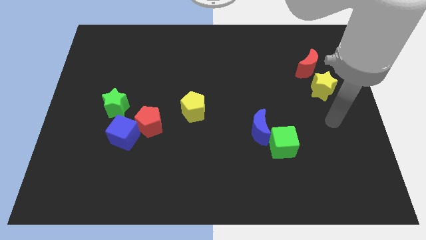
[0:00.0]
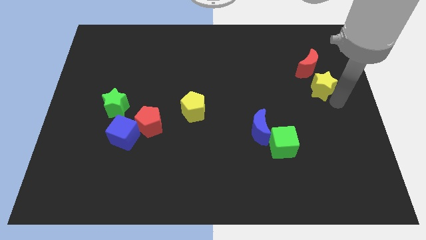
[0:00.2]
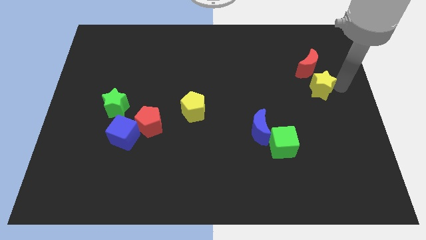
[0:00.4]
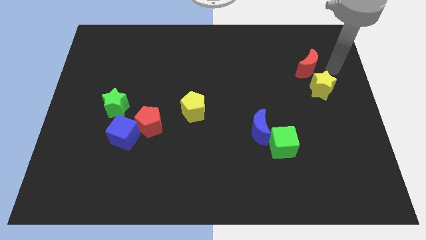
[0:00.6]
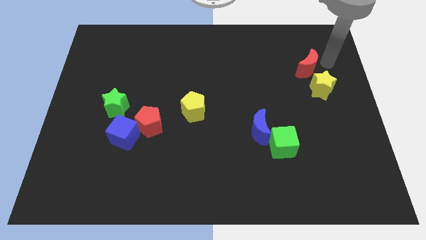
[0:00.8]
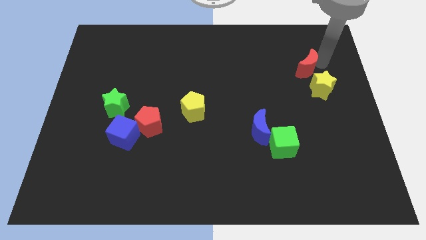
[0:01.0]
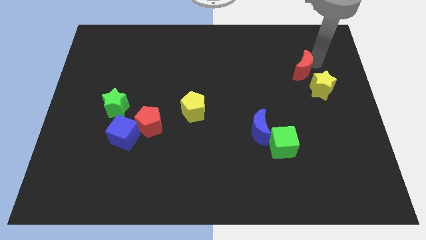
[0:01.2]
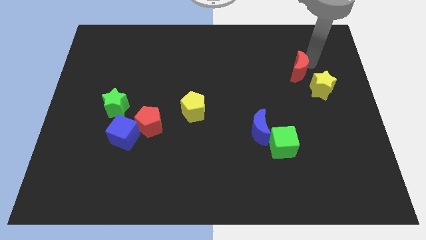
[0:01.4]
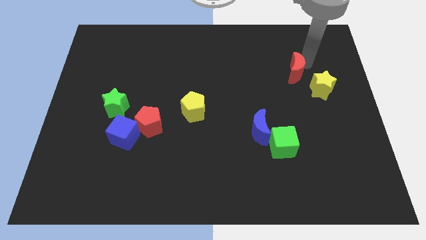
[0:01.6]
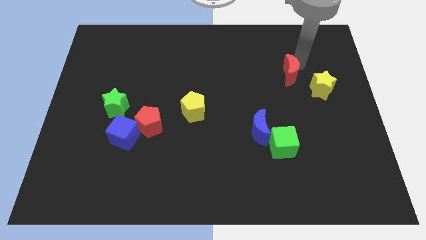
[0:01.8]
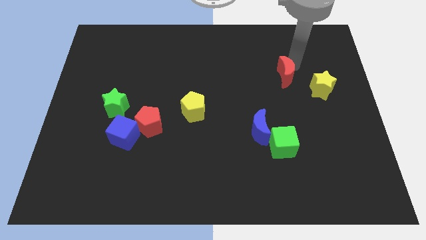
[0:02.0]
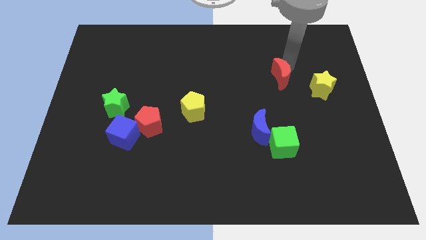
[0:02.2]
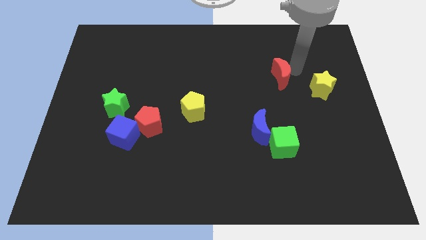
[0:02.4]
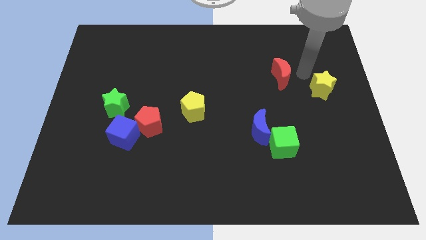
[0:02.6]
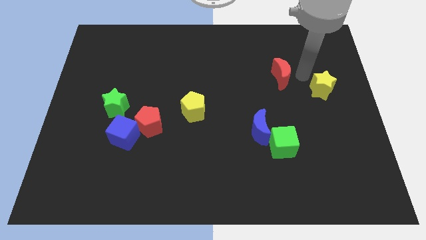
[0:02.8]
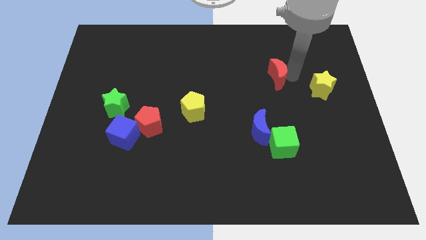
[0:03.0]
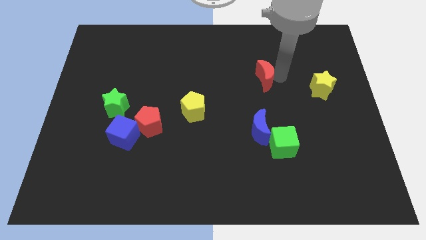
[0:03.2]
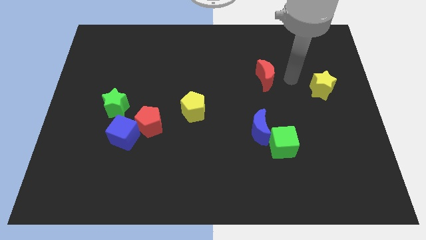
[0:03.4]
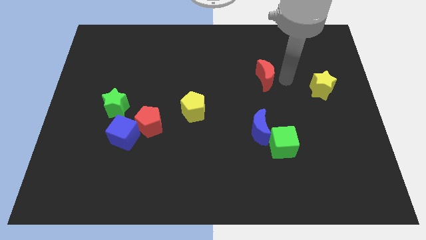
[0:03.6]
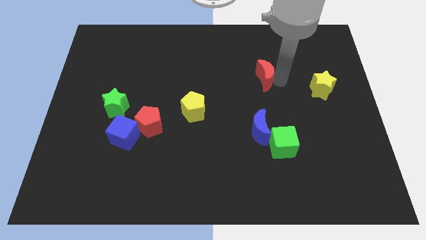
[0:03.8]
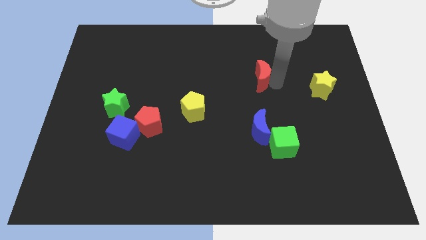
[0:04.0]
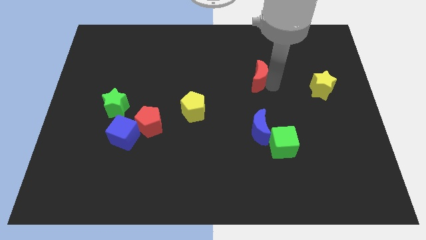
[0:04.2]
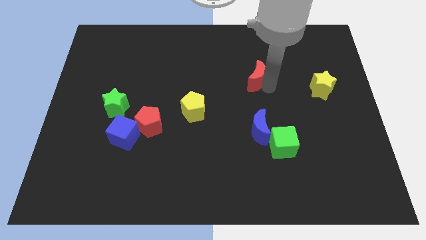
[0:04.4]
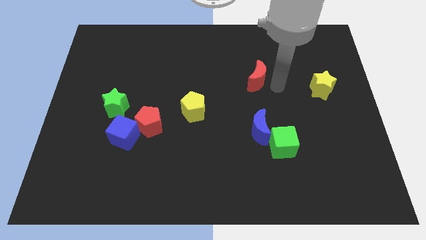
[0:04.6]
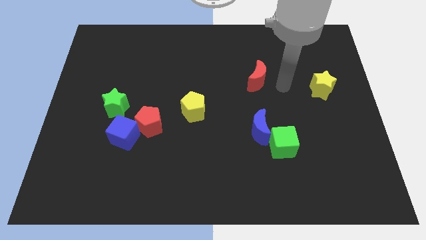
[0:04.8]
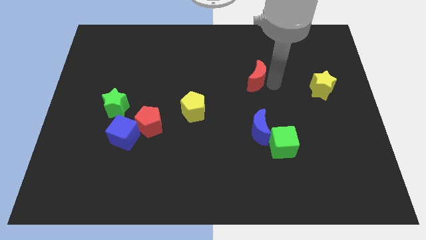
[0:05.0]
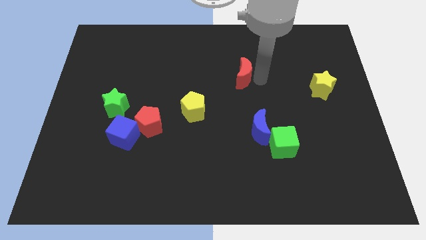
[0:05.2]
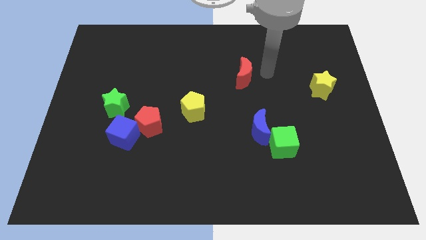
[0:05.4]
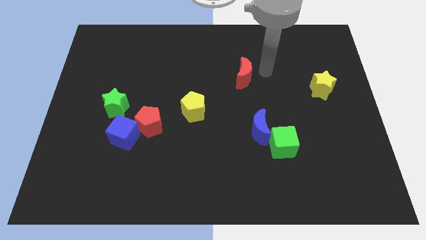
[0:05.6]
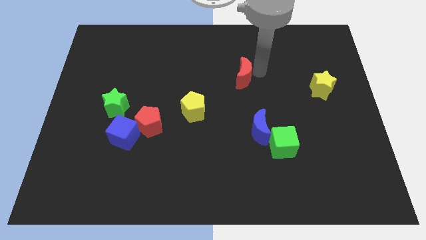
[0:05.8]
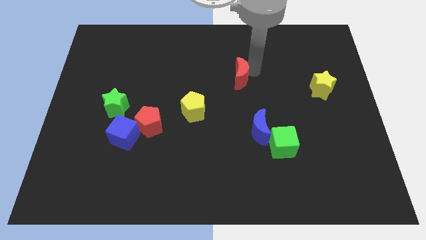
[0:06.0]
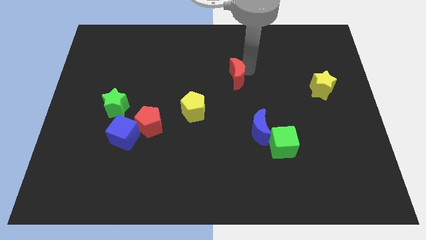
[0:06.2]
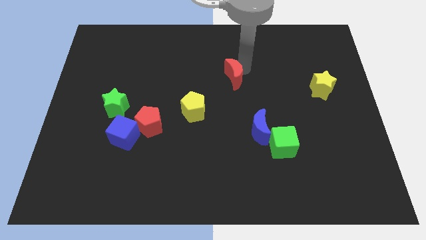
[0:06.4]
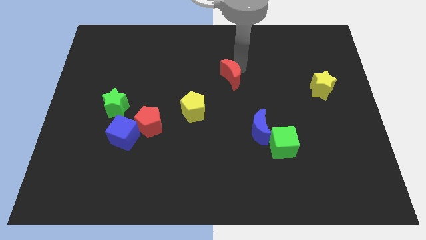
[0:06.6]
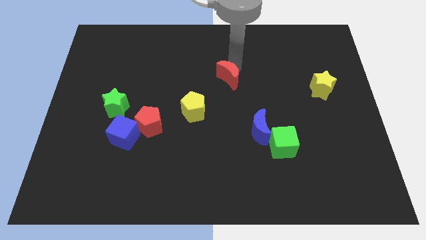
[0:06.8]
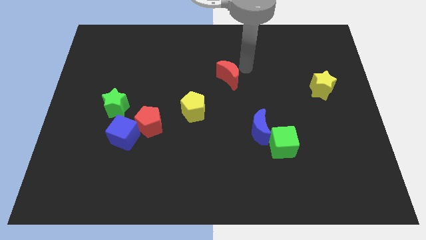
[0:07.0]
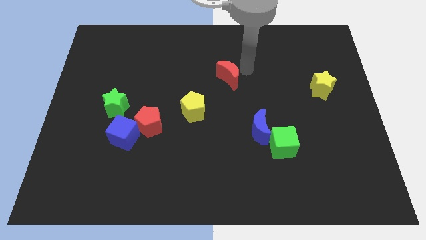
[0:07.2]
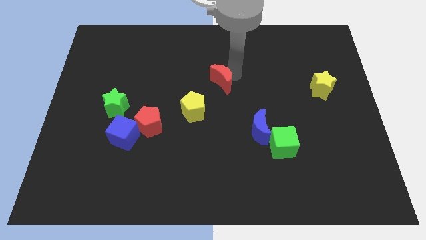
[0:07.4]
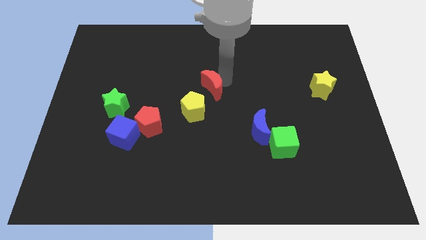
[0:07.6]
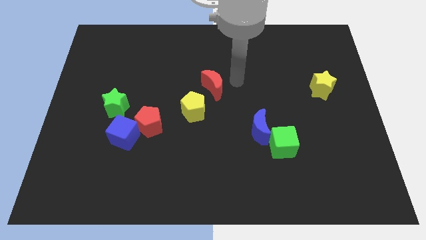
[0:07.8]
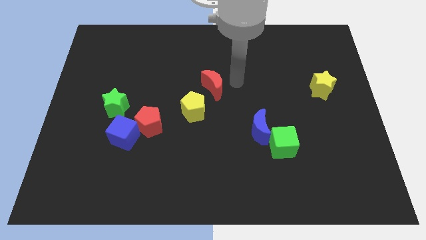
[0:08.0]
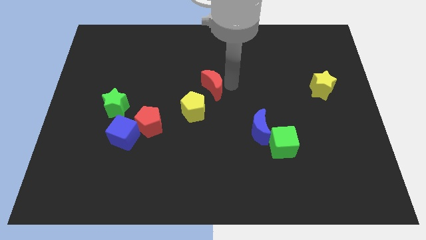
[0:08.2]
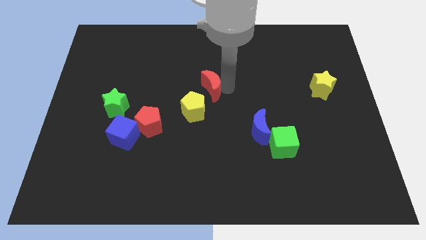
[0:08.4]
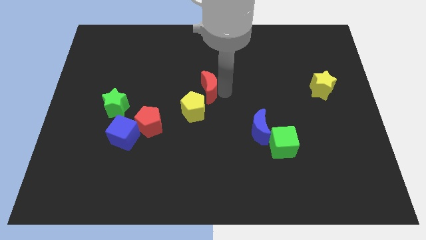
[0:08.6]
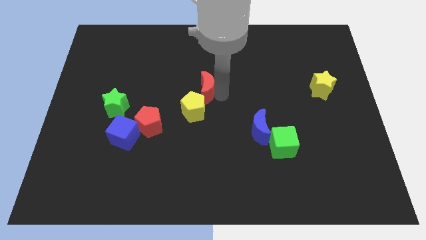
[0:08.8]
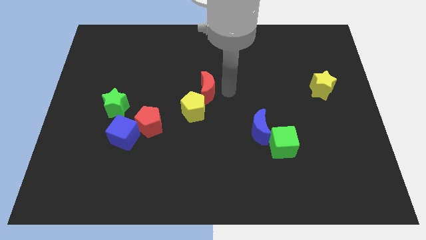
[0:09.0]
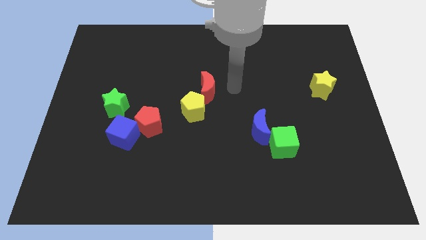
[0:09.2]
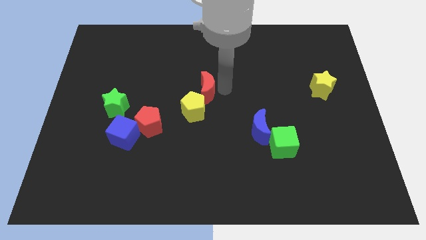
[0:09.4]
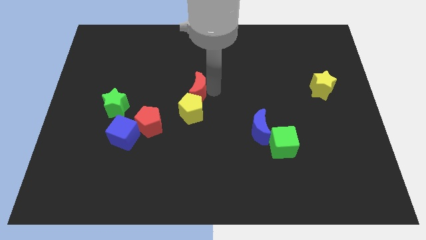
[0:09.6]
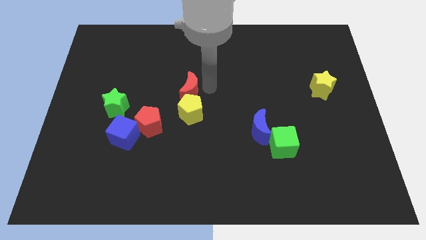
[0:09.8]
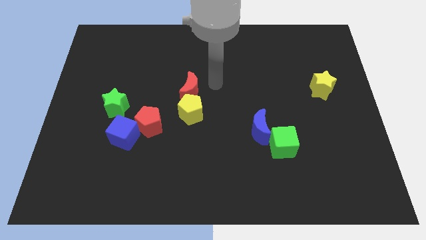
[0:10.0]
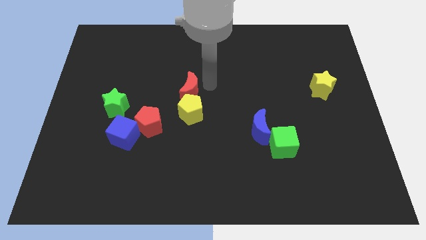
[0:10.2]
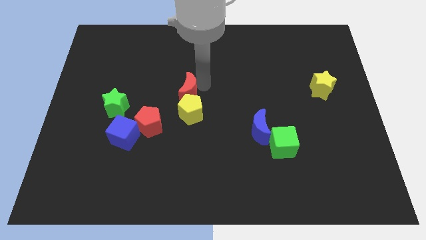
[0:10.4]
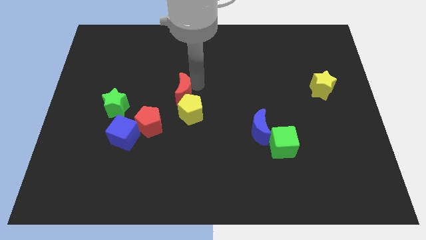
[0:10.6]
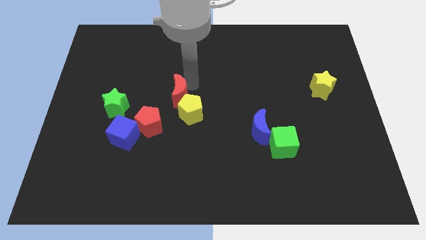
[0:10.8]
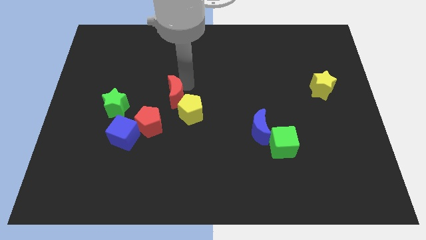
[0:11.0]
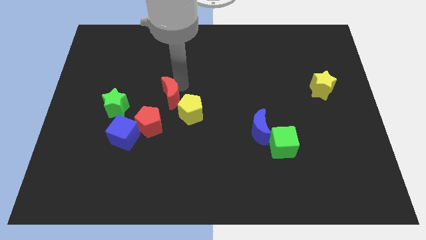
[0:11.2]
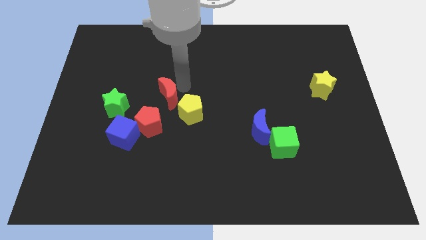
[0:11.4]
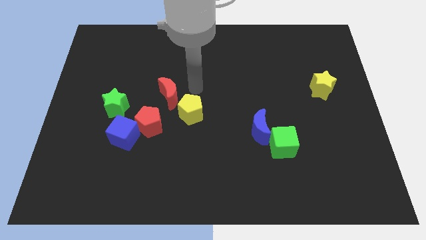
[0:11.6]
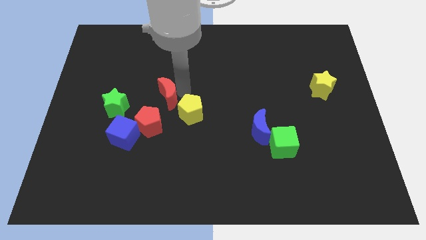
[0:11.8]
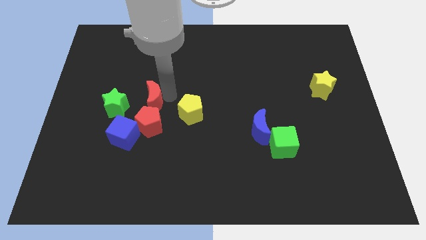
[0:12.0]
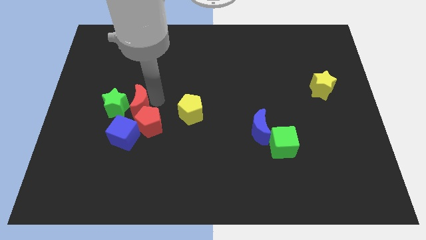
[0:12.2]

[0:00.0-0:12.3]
move the red moon towards the green star

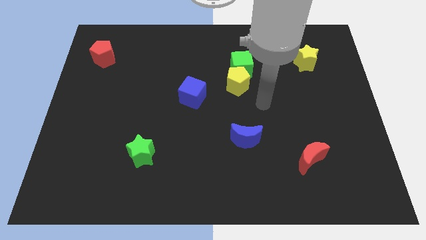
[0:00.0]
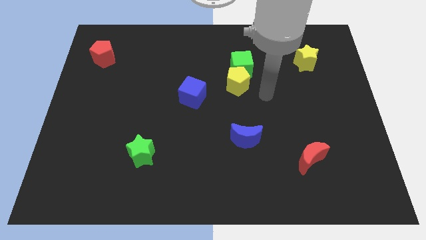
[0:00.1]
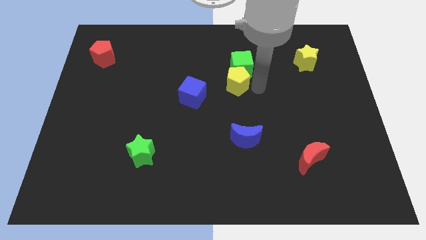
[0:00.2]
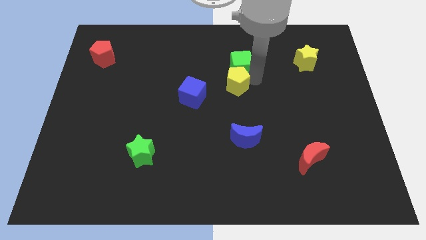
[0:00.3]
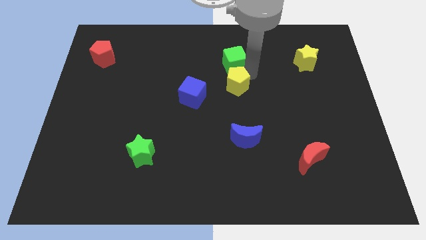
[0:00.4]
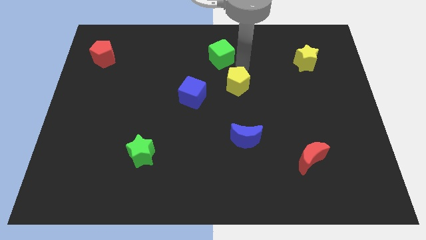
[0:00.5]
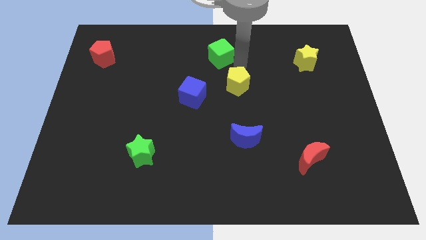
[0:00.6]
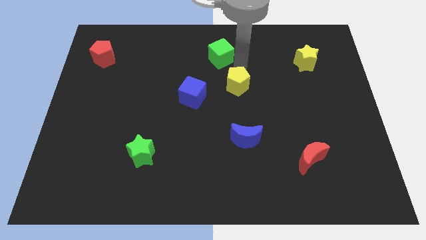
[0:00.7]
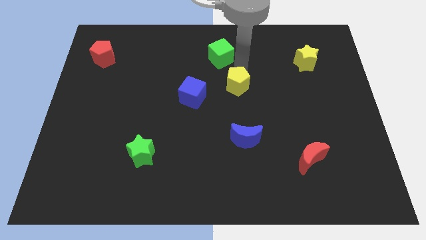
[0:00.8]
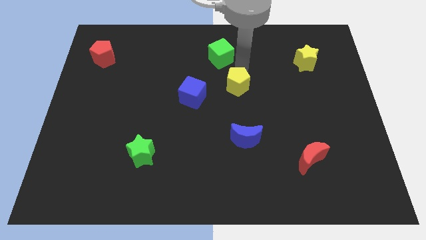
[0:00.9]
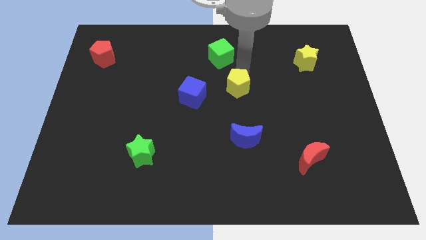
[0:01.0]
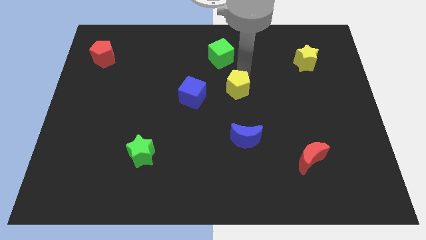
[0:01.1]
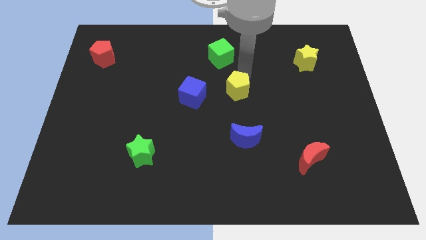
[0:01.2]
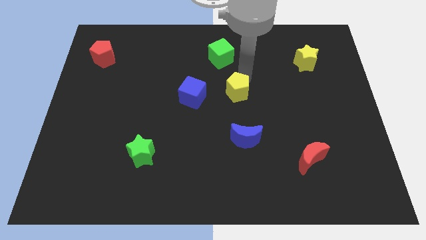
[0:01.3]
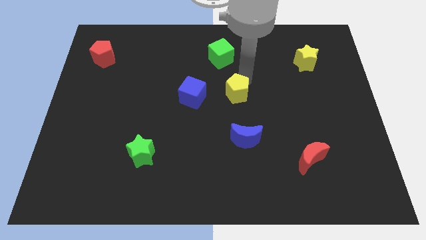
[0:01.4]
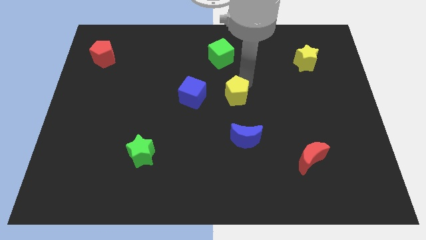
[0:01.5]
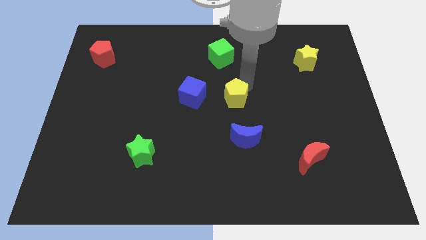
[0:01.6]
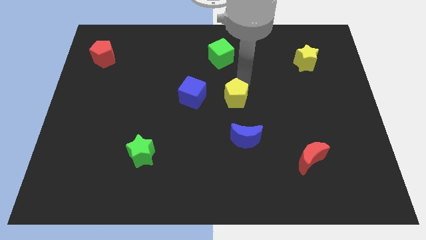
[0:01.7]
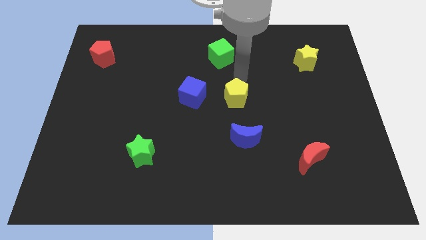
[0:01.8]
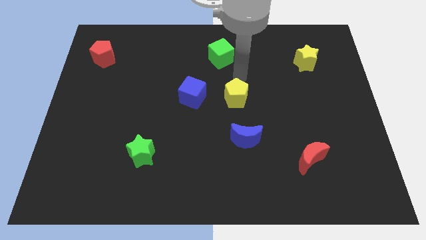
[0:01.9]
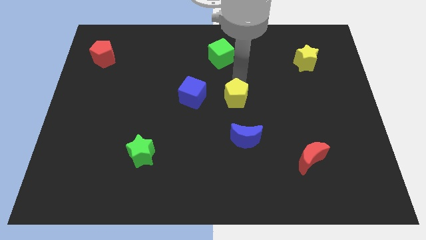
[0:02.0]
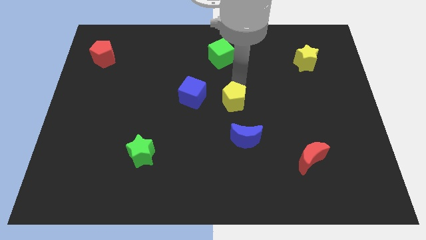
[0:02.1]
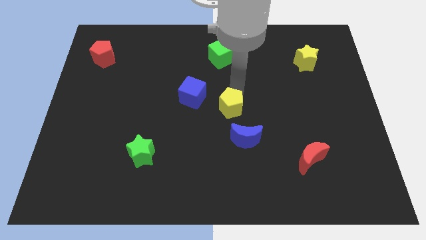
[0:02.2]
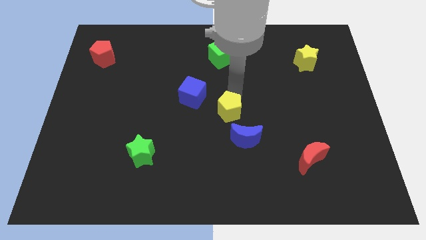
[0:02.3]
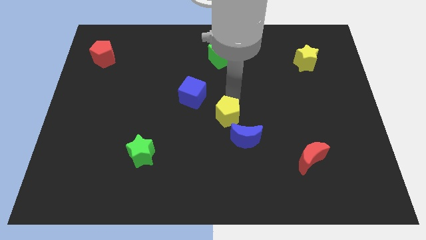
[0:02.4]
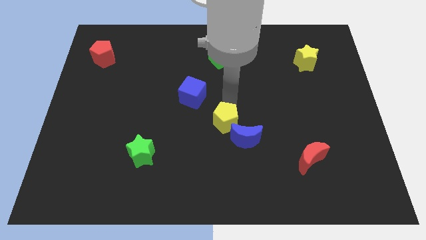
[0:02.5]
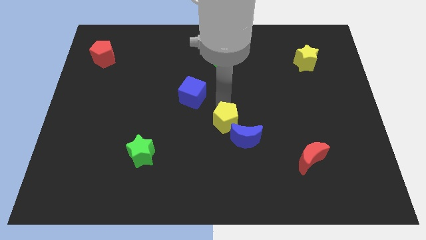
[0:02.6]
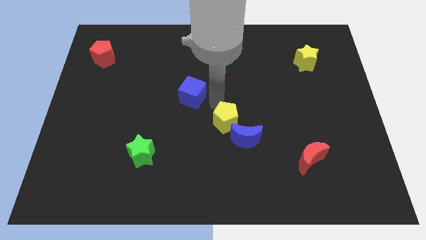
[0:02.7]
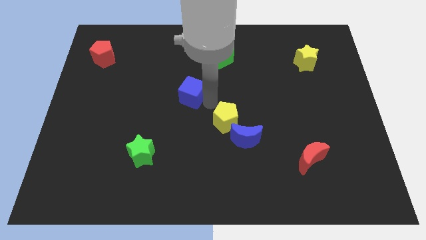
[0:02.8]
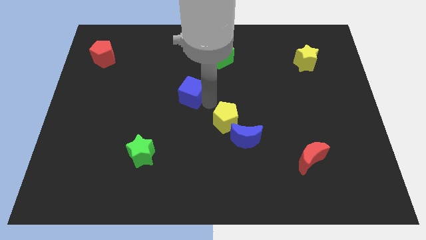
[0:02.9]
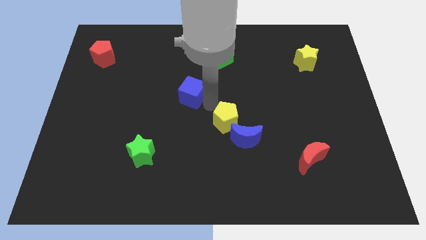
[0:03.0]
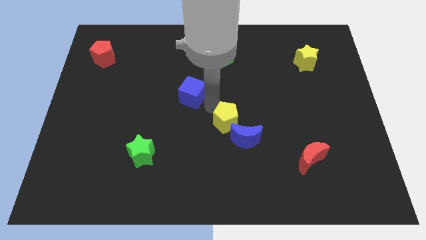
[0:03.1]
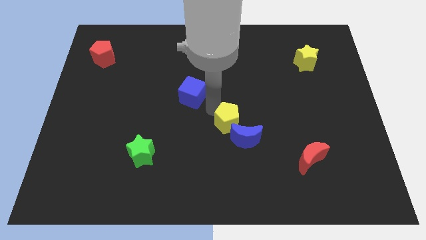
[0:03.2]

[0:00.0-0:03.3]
move the yellow pentagon to the blue moon
